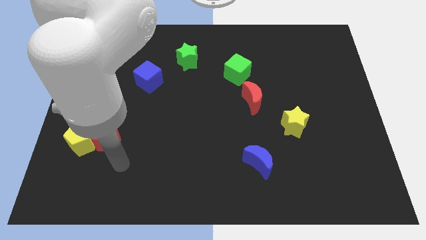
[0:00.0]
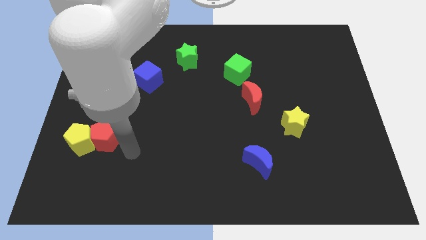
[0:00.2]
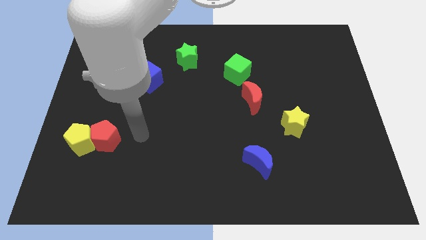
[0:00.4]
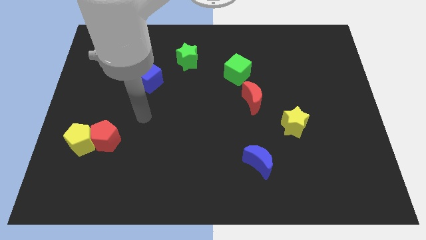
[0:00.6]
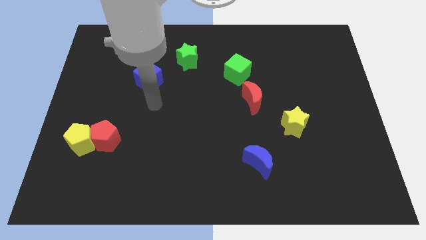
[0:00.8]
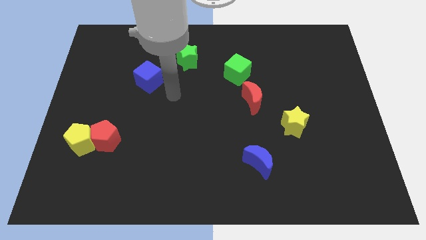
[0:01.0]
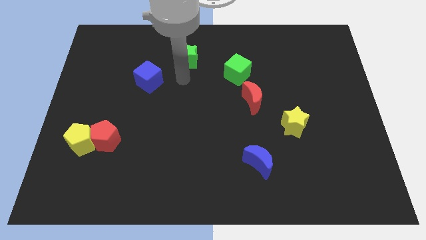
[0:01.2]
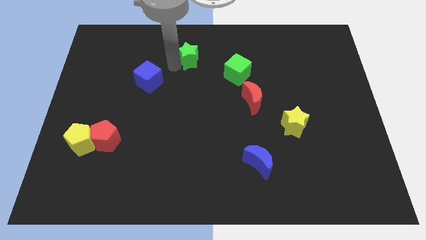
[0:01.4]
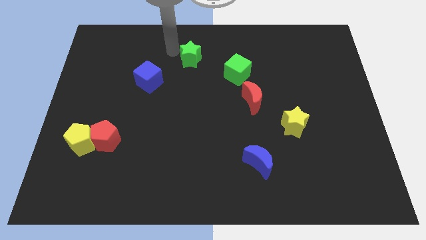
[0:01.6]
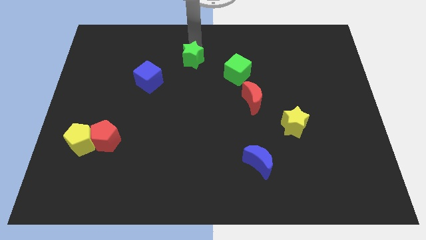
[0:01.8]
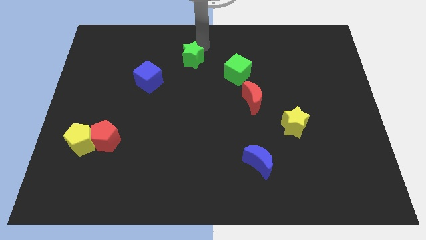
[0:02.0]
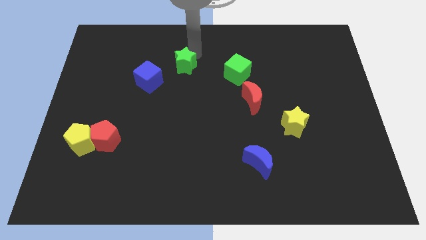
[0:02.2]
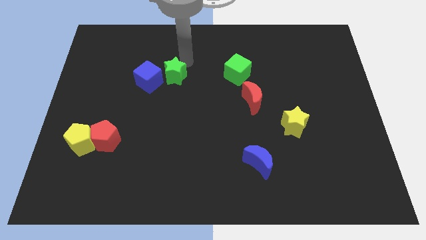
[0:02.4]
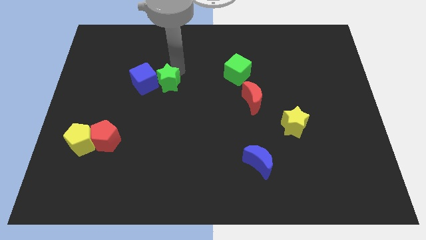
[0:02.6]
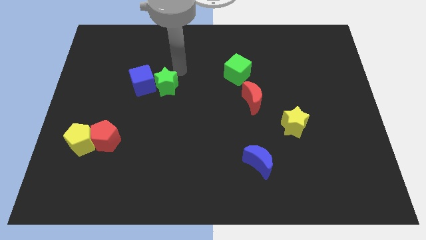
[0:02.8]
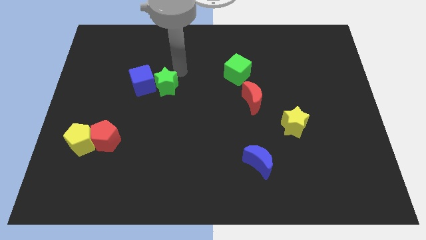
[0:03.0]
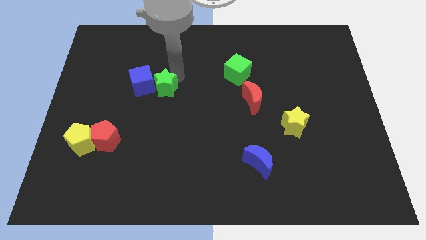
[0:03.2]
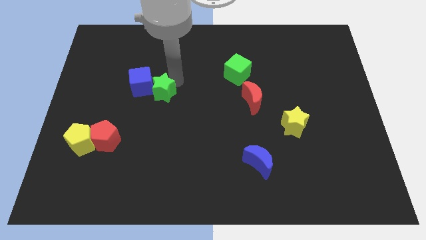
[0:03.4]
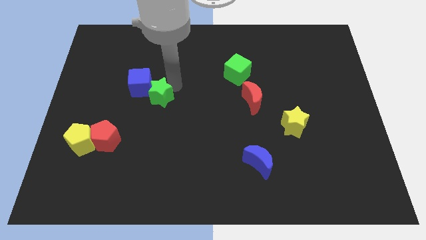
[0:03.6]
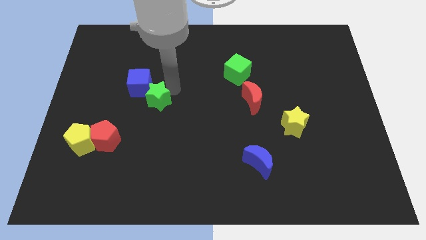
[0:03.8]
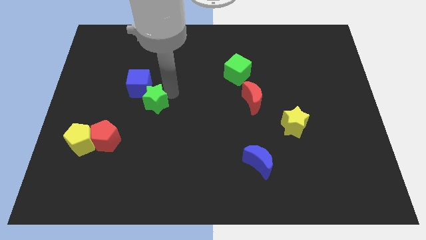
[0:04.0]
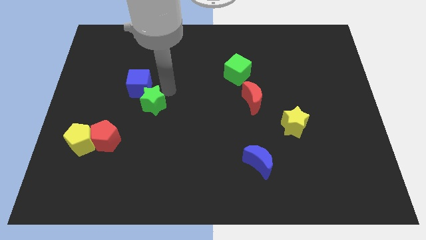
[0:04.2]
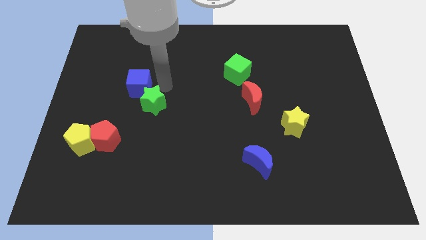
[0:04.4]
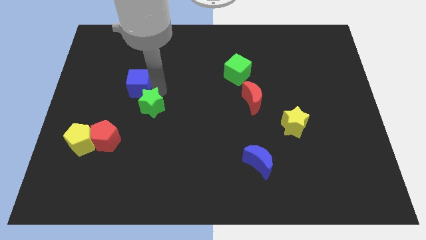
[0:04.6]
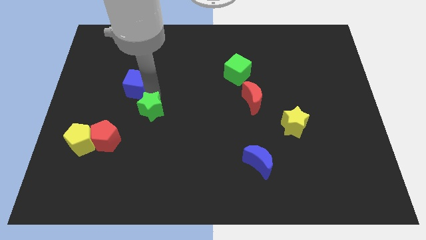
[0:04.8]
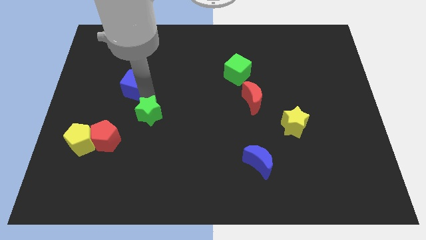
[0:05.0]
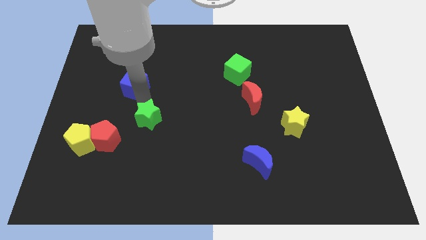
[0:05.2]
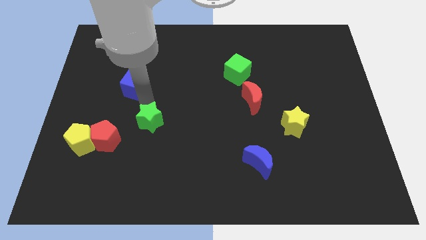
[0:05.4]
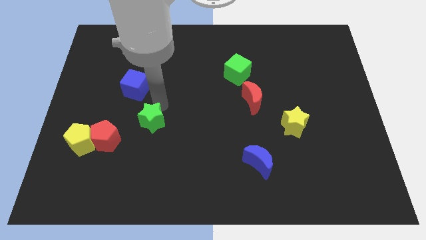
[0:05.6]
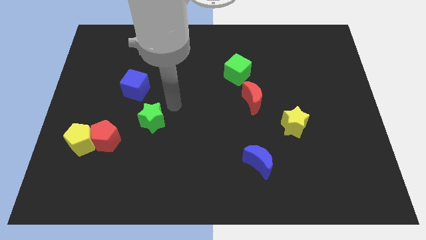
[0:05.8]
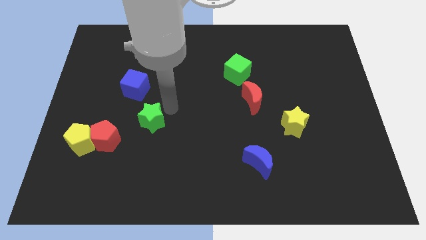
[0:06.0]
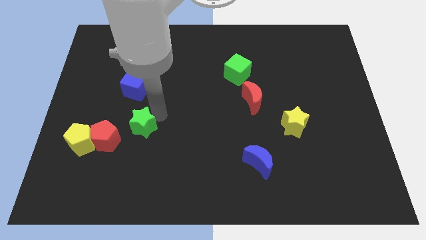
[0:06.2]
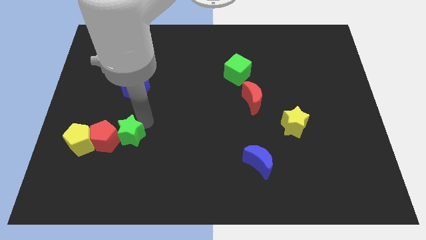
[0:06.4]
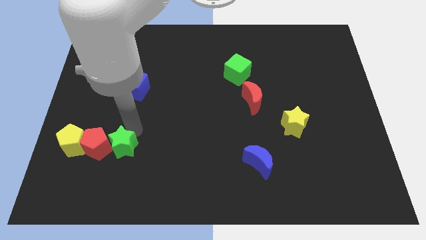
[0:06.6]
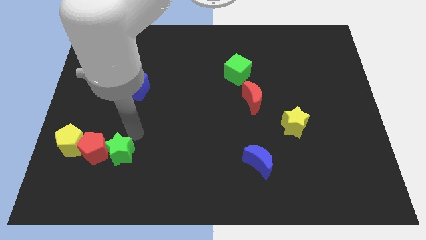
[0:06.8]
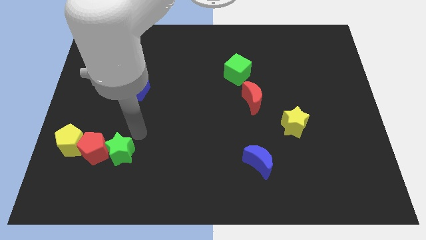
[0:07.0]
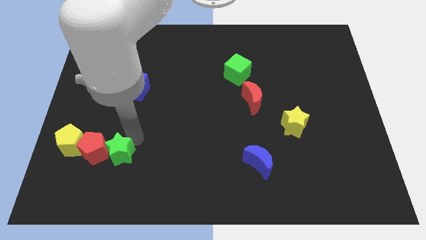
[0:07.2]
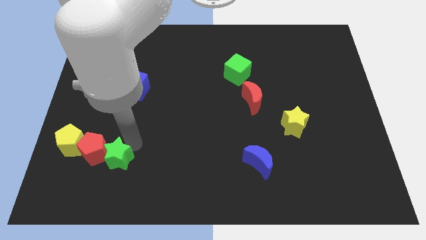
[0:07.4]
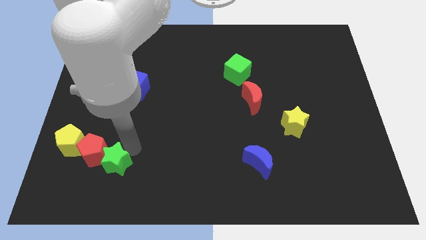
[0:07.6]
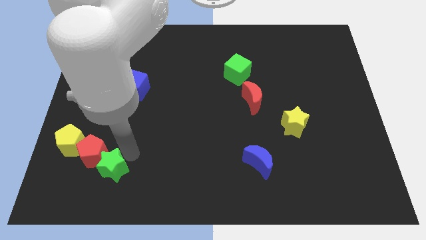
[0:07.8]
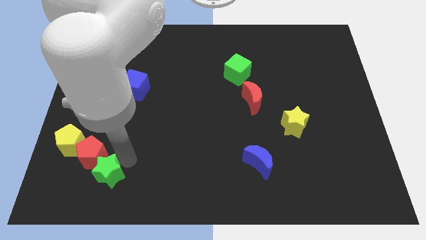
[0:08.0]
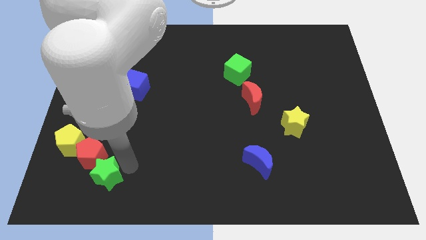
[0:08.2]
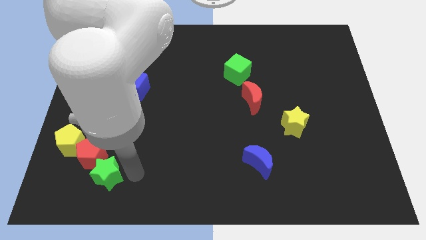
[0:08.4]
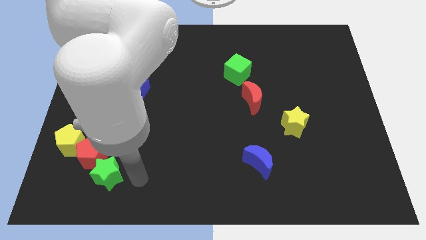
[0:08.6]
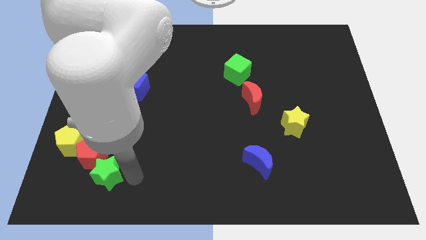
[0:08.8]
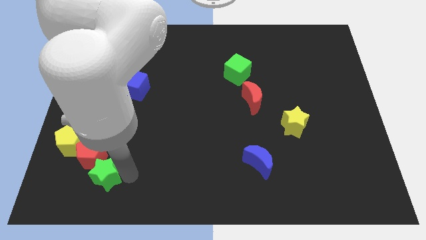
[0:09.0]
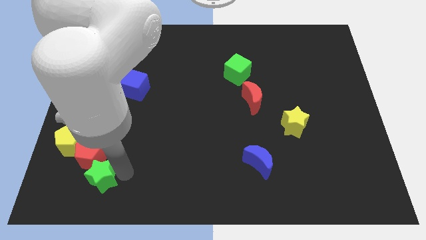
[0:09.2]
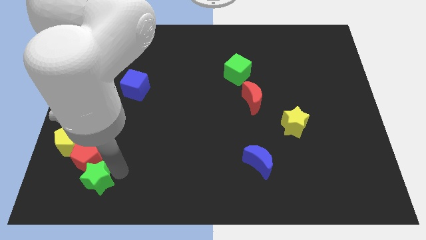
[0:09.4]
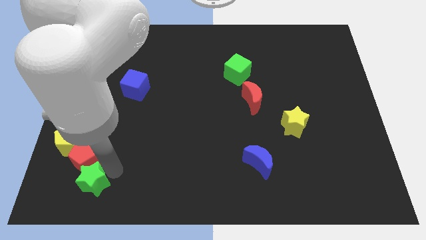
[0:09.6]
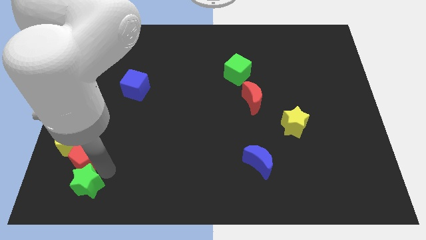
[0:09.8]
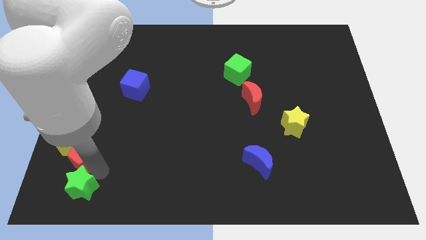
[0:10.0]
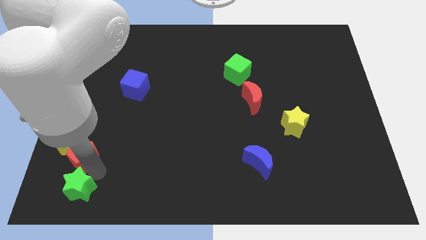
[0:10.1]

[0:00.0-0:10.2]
move the green star to the lower left corner
